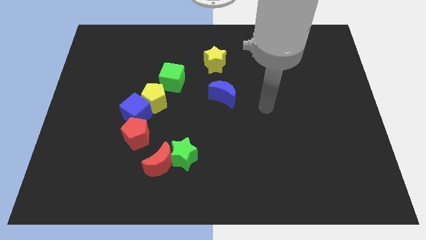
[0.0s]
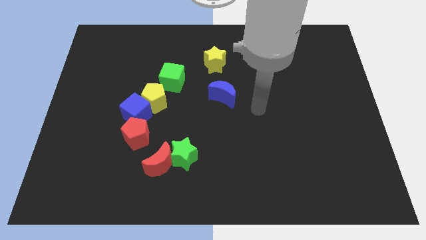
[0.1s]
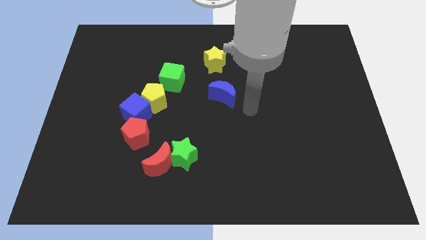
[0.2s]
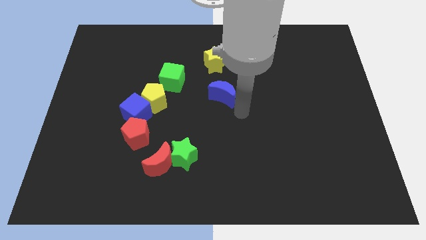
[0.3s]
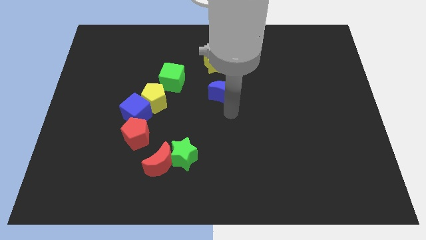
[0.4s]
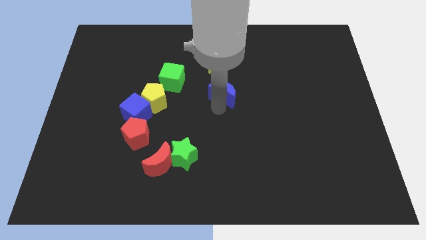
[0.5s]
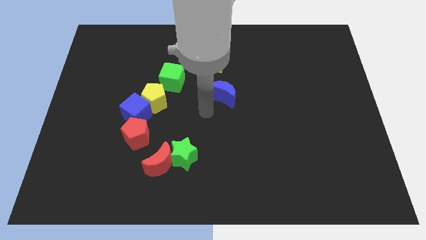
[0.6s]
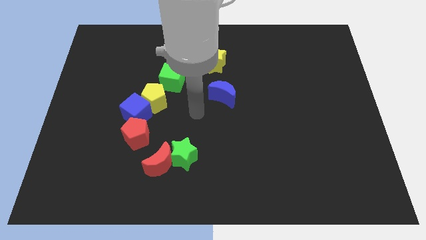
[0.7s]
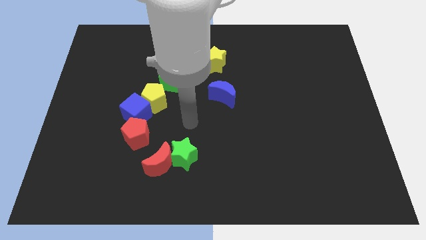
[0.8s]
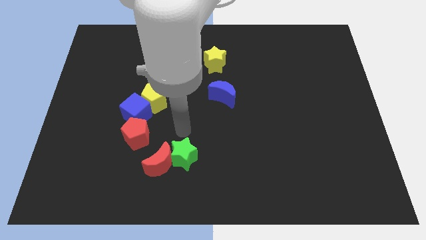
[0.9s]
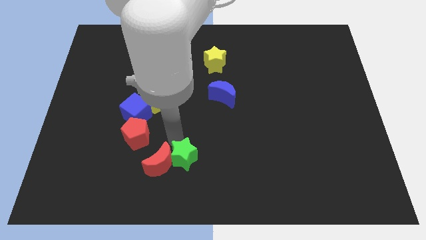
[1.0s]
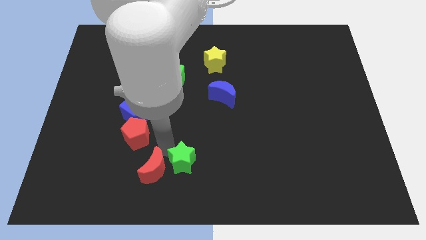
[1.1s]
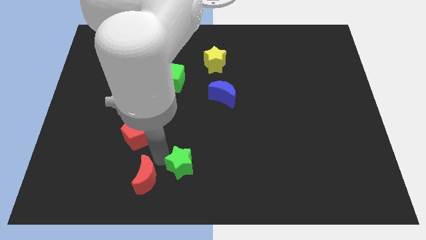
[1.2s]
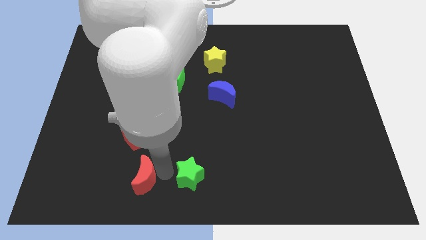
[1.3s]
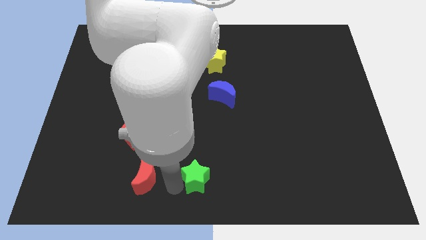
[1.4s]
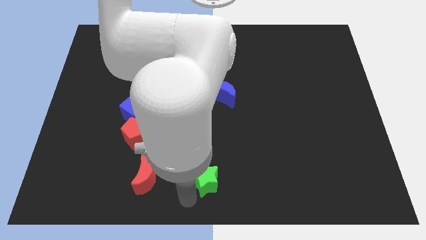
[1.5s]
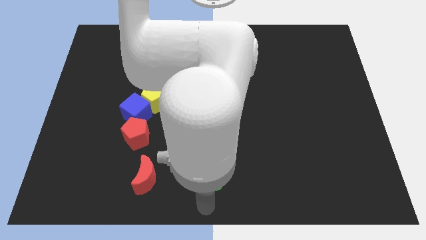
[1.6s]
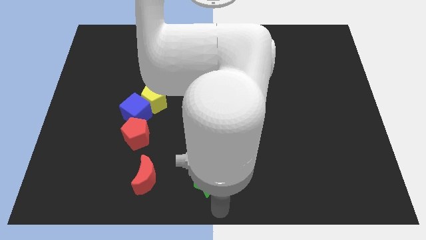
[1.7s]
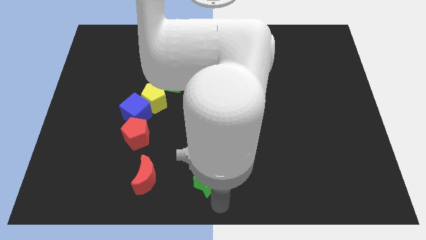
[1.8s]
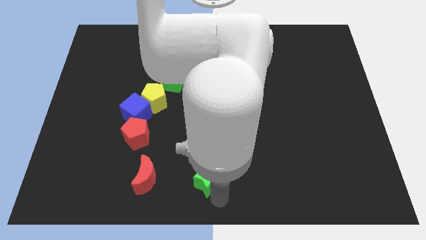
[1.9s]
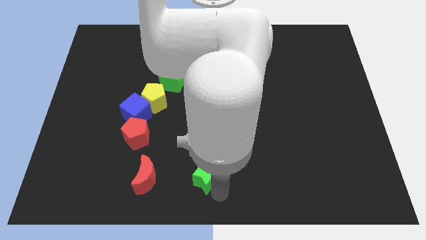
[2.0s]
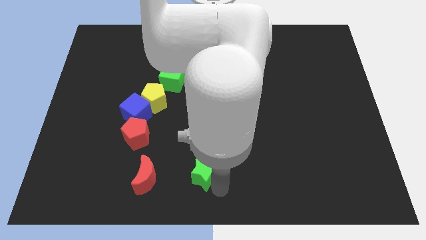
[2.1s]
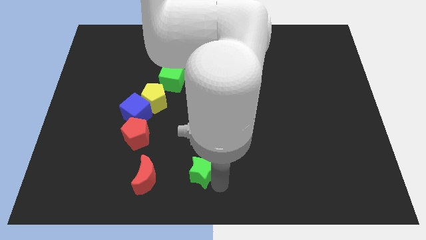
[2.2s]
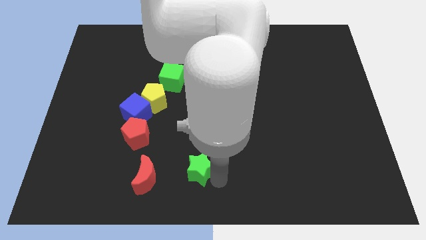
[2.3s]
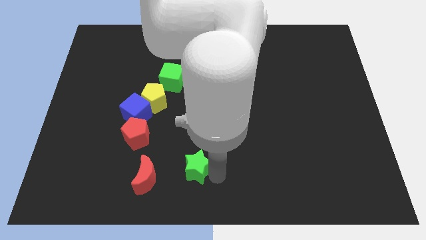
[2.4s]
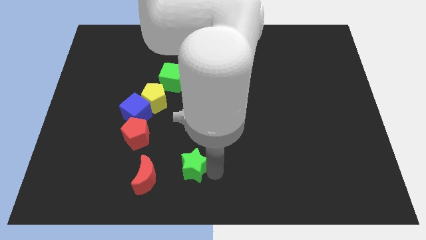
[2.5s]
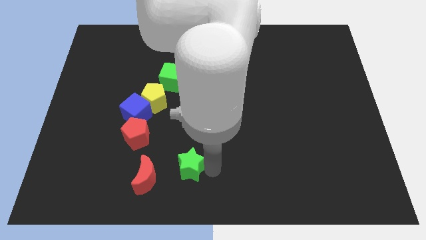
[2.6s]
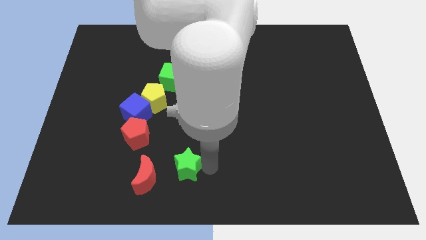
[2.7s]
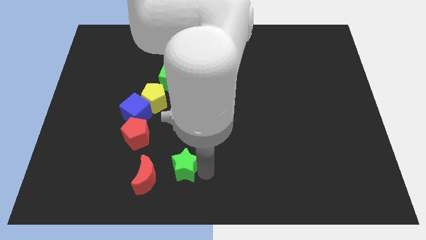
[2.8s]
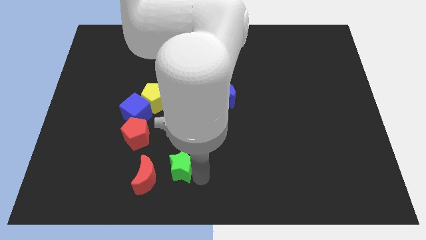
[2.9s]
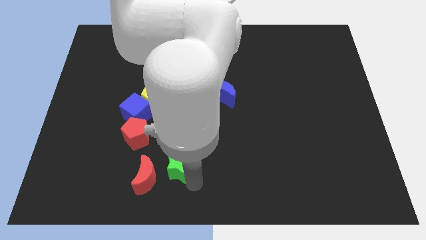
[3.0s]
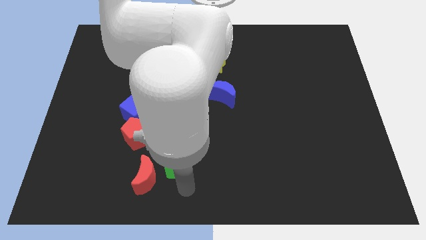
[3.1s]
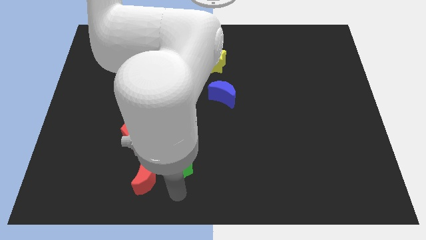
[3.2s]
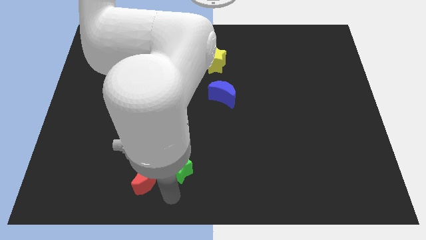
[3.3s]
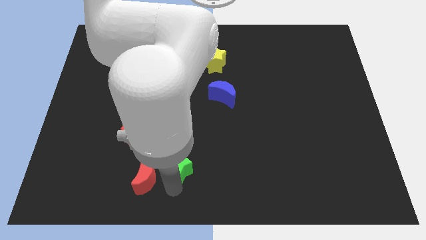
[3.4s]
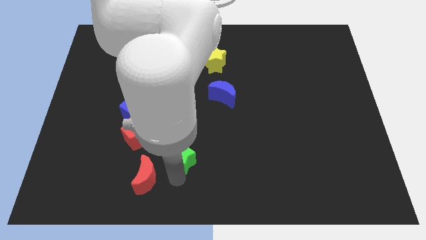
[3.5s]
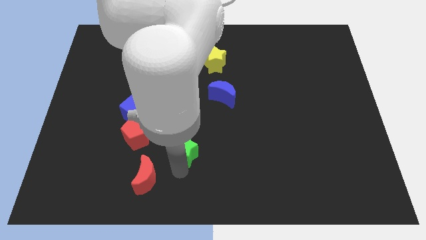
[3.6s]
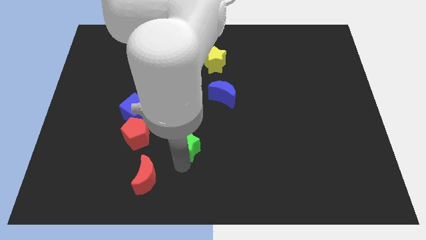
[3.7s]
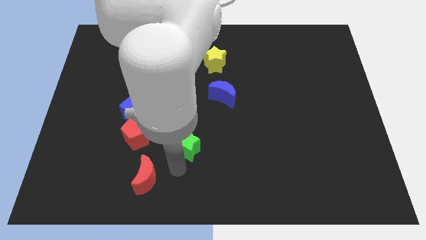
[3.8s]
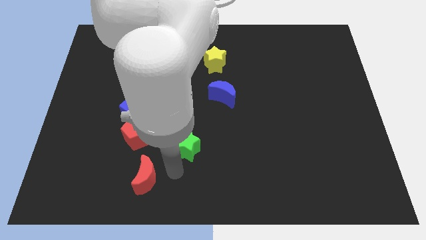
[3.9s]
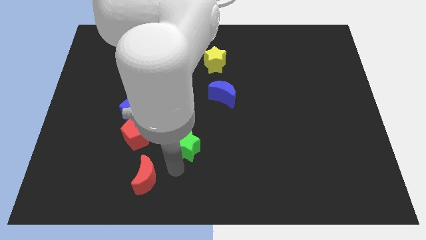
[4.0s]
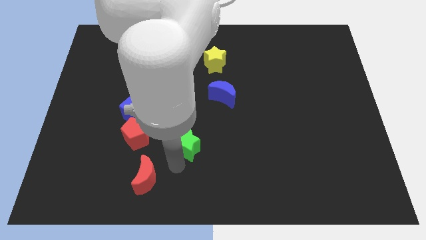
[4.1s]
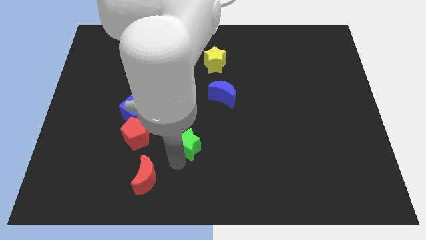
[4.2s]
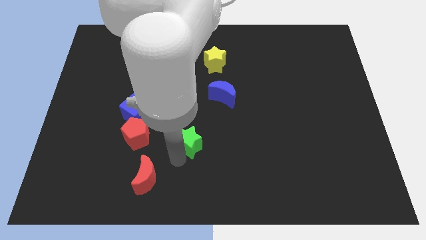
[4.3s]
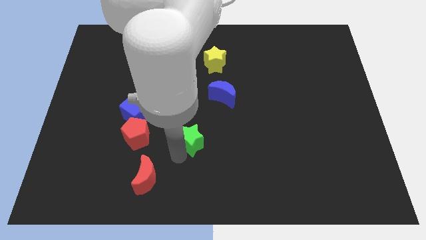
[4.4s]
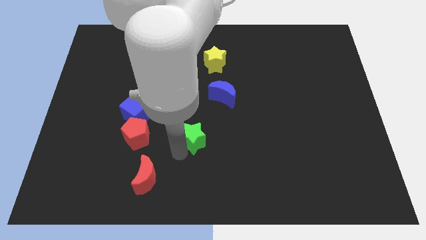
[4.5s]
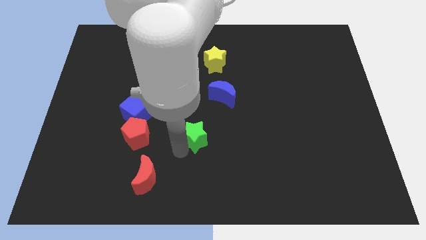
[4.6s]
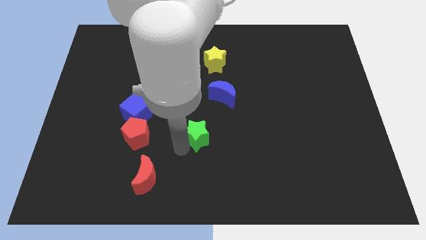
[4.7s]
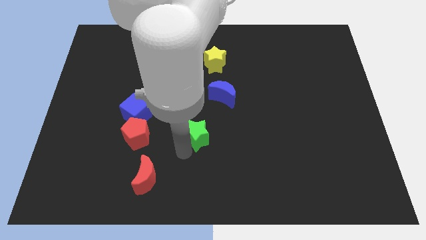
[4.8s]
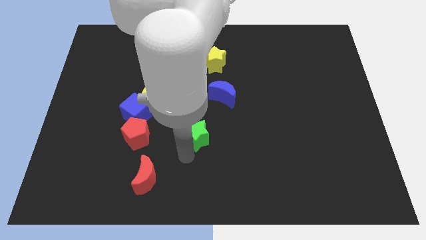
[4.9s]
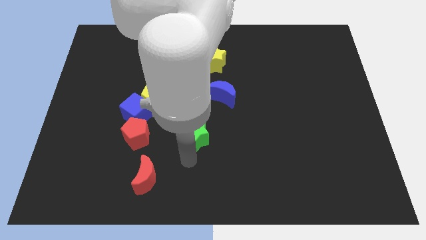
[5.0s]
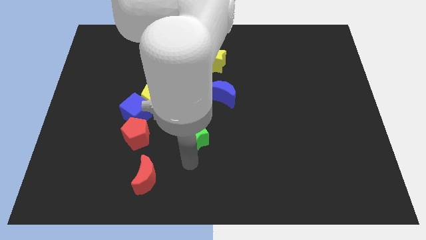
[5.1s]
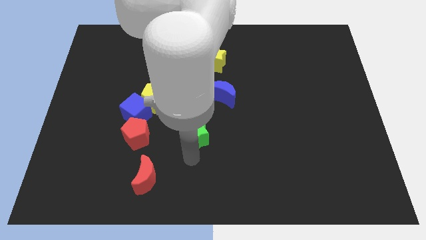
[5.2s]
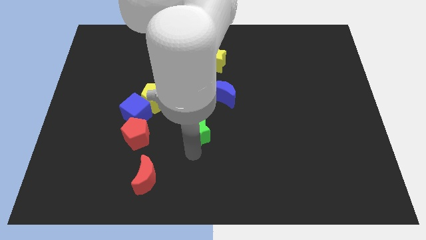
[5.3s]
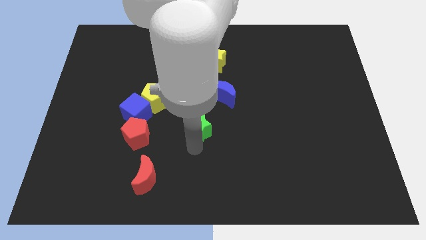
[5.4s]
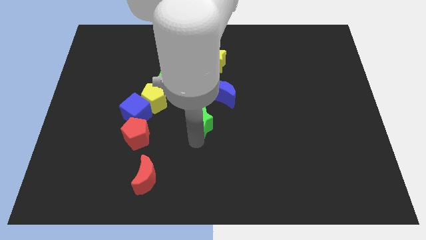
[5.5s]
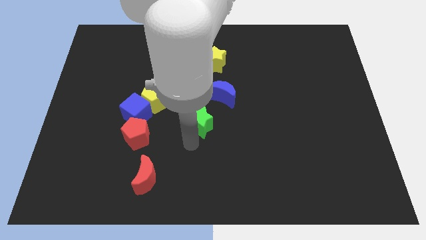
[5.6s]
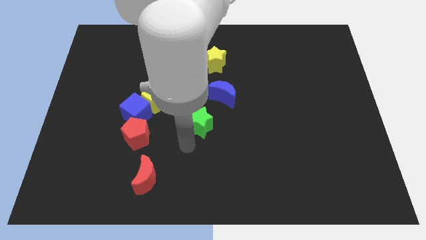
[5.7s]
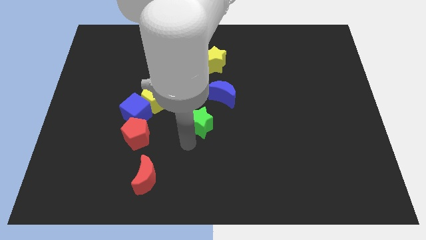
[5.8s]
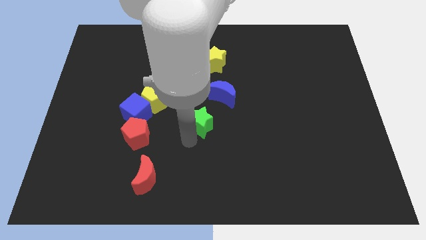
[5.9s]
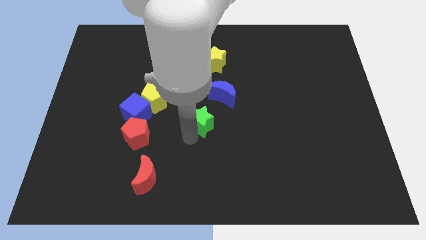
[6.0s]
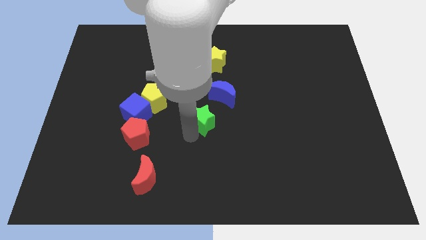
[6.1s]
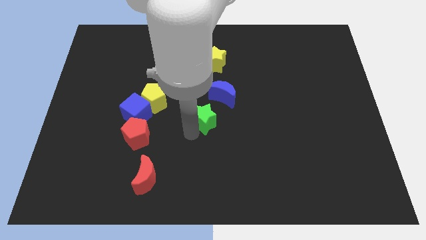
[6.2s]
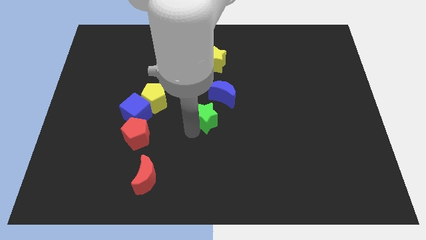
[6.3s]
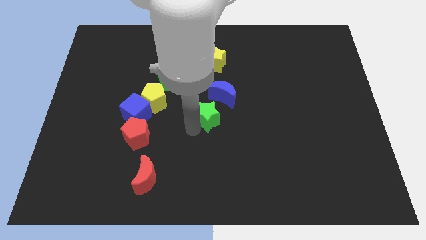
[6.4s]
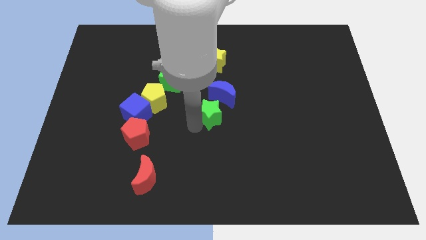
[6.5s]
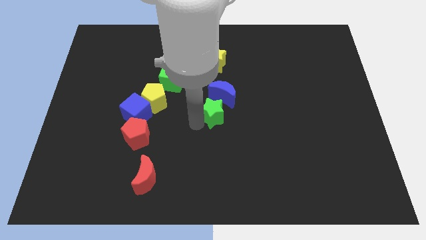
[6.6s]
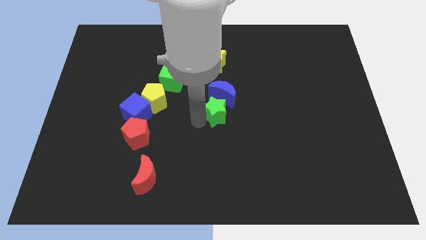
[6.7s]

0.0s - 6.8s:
put the green star next to the blue moon
